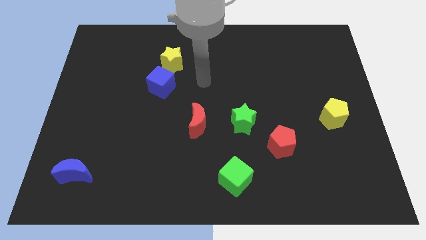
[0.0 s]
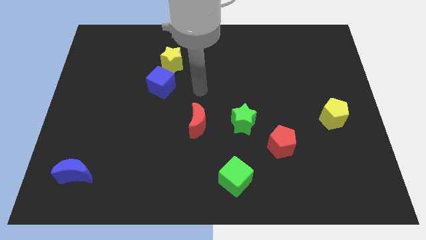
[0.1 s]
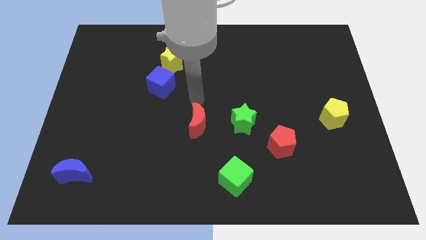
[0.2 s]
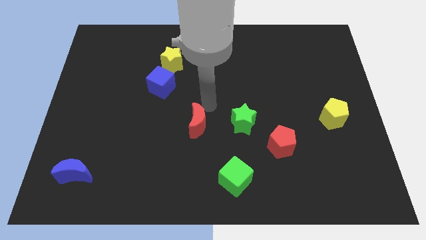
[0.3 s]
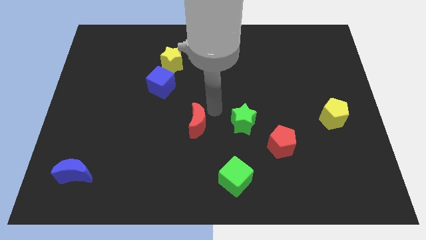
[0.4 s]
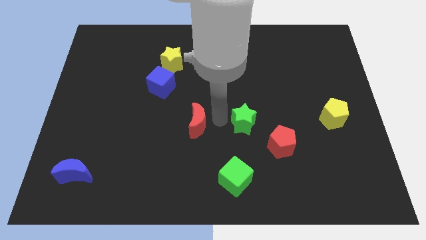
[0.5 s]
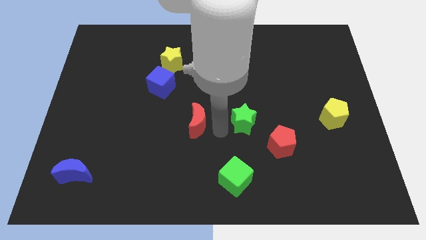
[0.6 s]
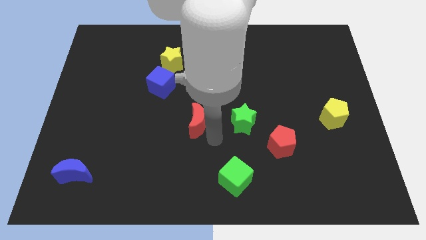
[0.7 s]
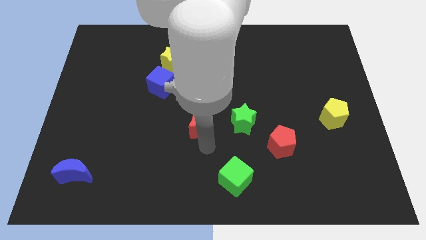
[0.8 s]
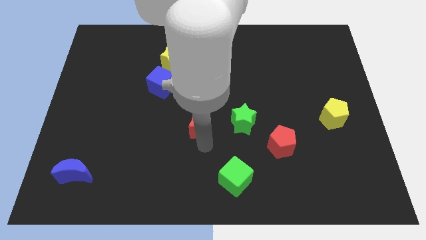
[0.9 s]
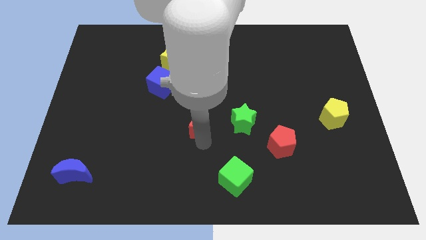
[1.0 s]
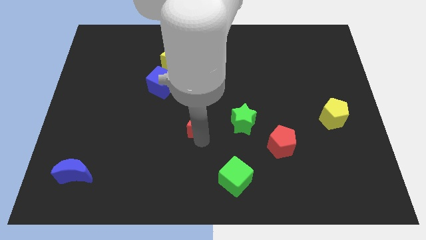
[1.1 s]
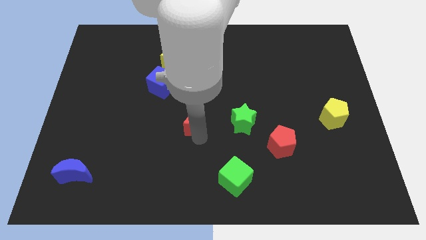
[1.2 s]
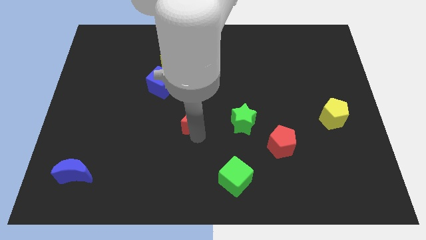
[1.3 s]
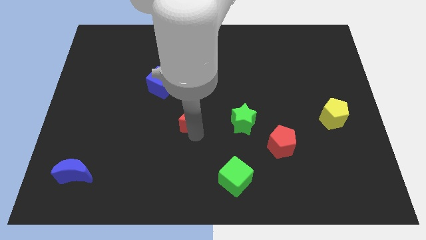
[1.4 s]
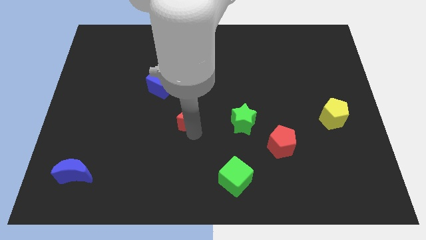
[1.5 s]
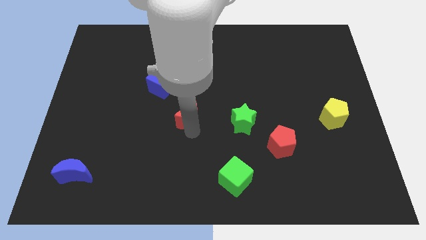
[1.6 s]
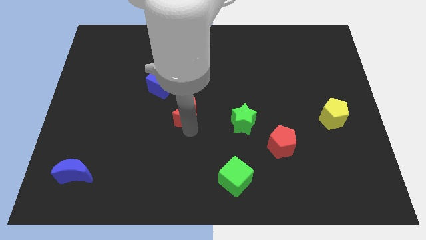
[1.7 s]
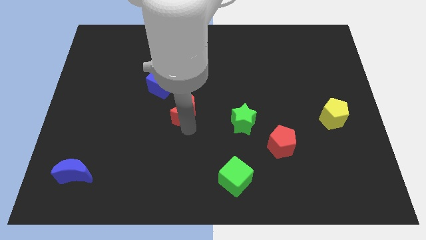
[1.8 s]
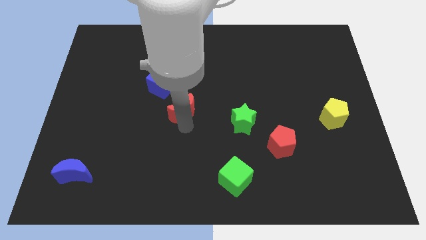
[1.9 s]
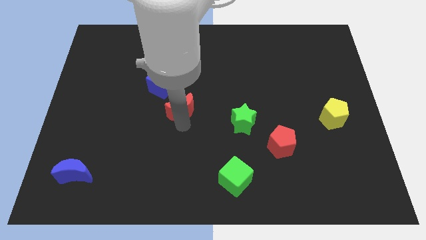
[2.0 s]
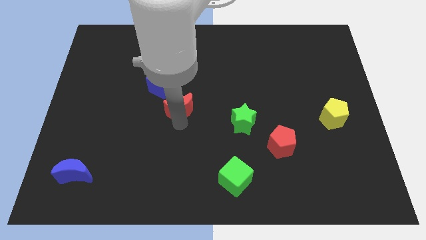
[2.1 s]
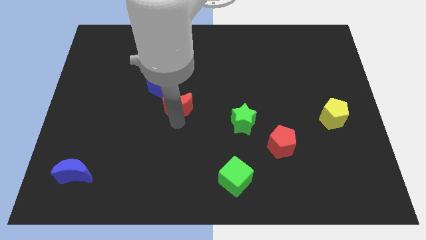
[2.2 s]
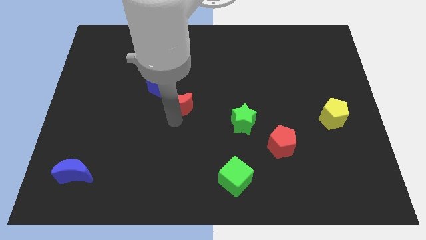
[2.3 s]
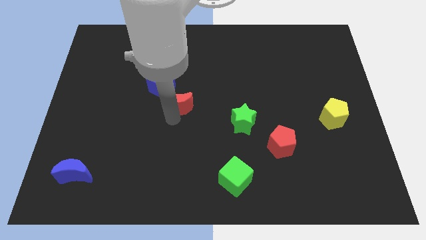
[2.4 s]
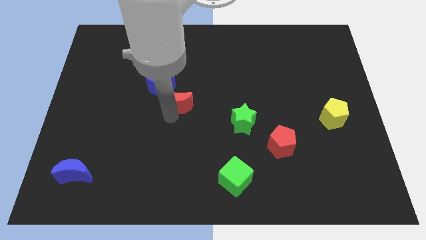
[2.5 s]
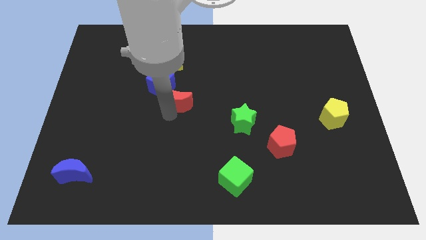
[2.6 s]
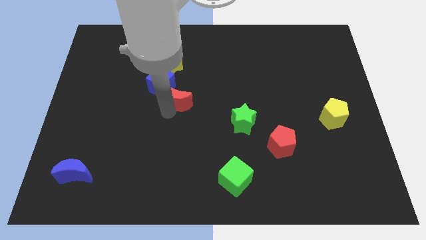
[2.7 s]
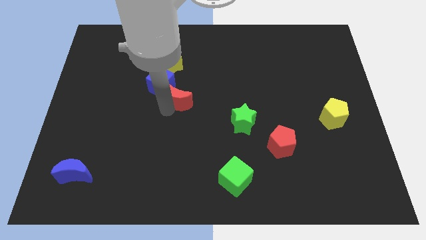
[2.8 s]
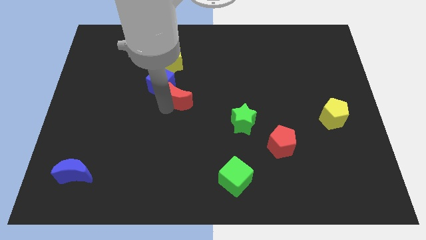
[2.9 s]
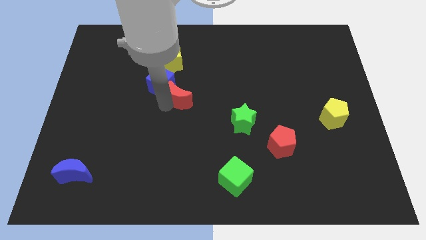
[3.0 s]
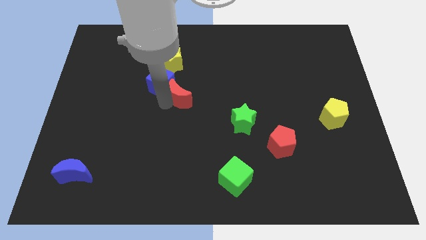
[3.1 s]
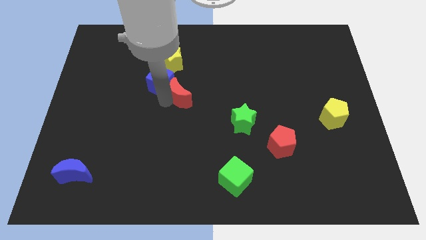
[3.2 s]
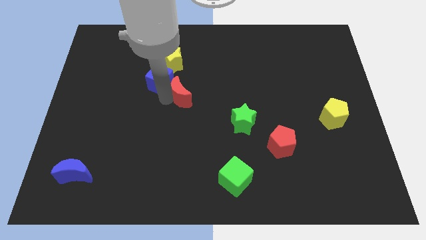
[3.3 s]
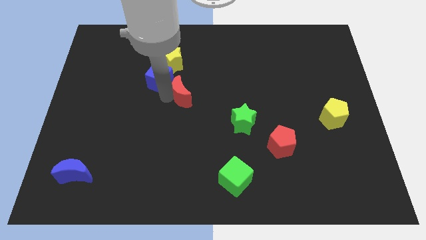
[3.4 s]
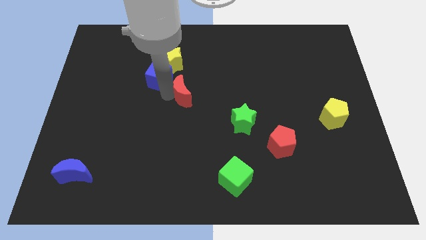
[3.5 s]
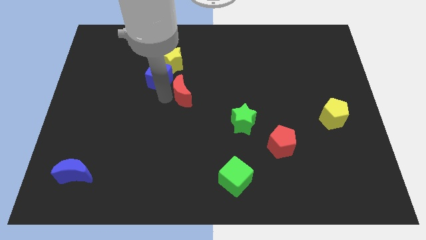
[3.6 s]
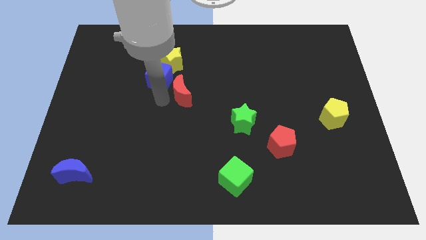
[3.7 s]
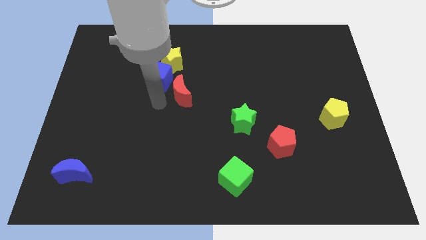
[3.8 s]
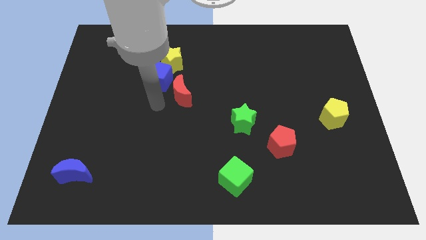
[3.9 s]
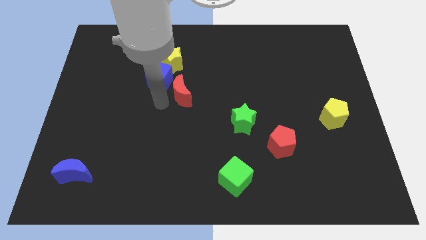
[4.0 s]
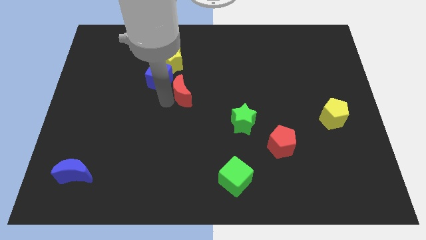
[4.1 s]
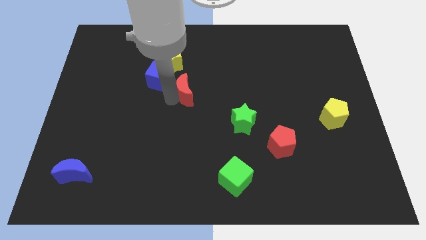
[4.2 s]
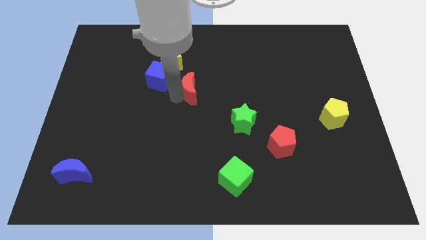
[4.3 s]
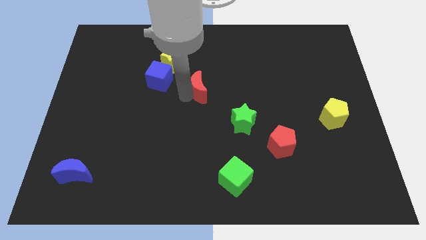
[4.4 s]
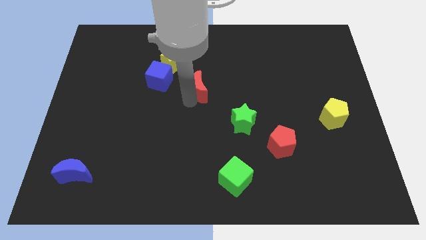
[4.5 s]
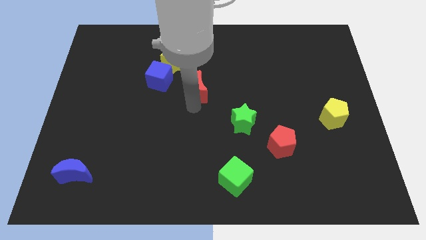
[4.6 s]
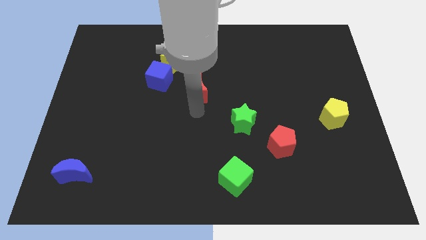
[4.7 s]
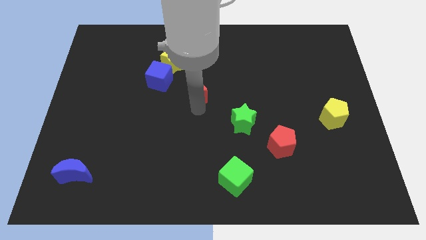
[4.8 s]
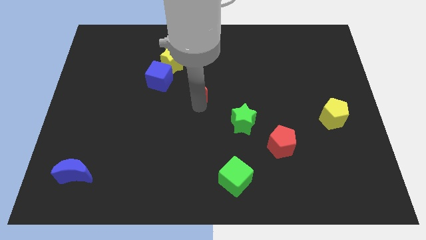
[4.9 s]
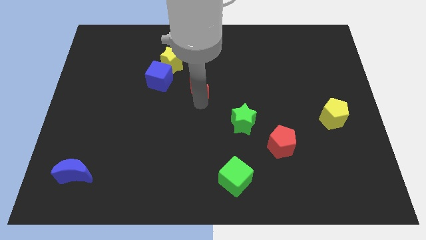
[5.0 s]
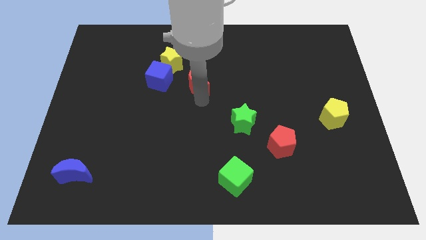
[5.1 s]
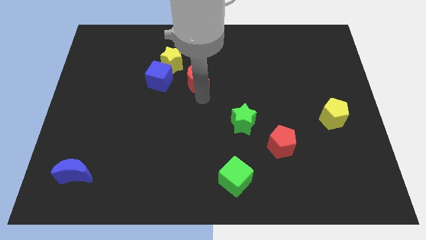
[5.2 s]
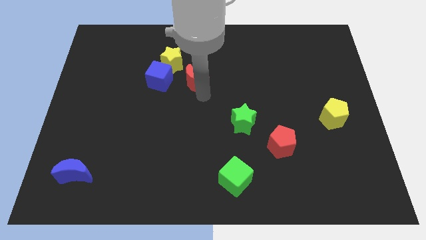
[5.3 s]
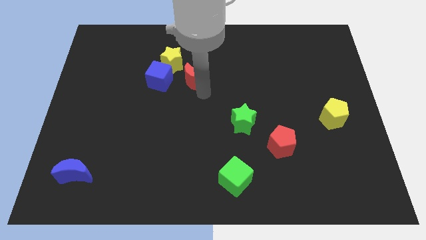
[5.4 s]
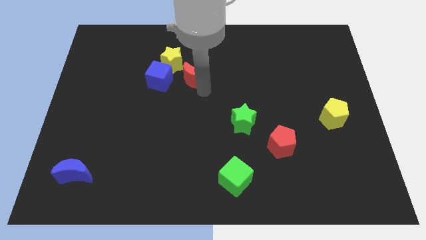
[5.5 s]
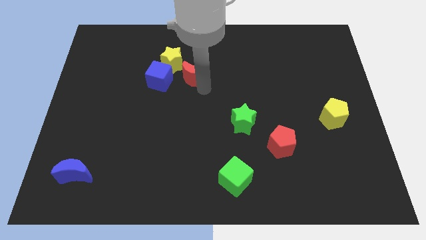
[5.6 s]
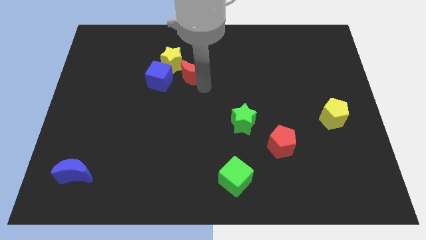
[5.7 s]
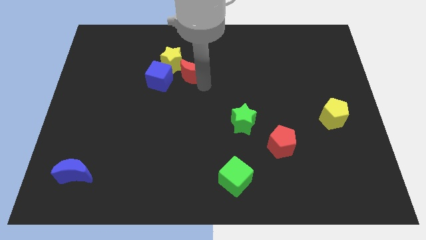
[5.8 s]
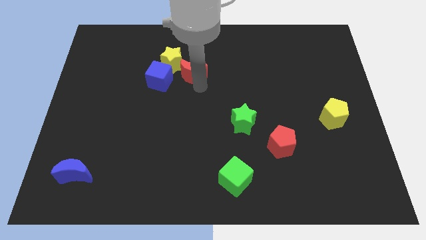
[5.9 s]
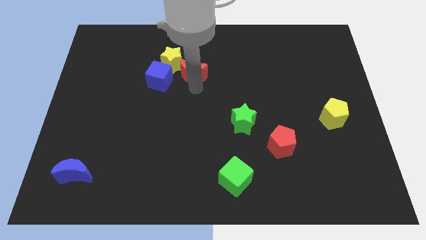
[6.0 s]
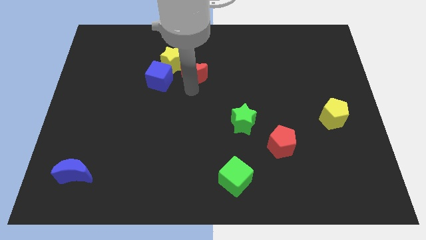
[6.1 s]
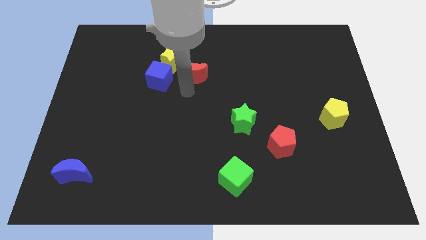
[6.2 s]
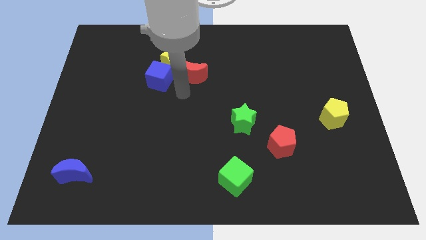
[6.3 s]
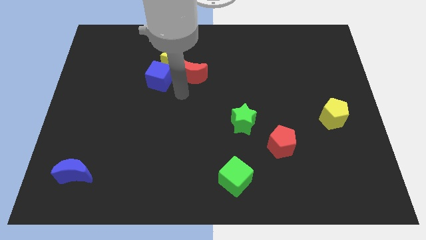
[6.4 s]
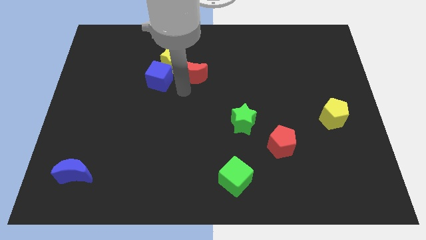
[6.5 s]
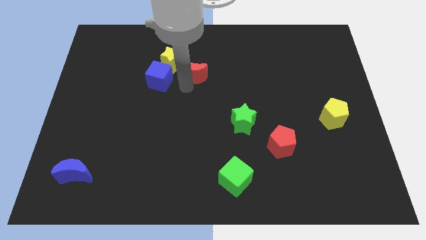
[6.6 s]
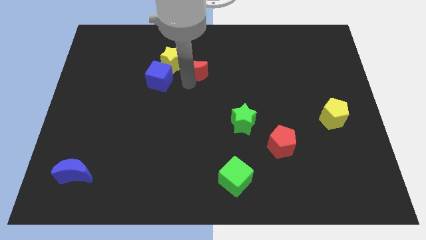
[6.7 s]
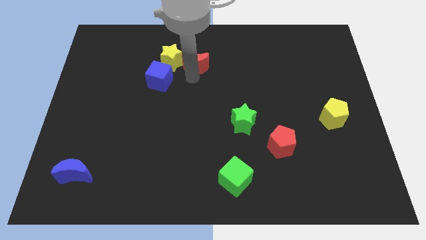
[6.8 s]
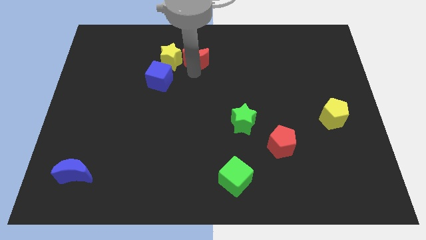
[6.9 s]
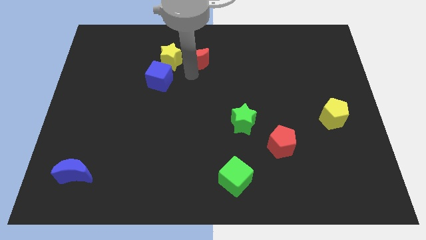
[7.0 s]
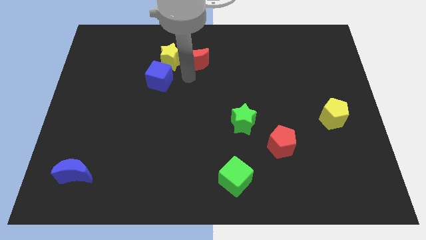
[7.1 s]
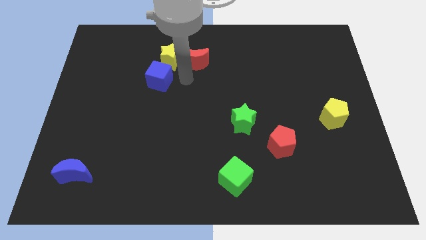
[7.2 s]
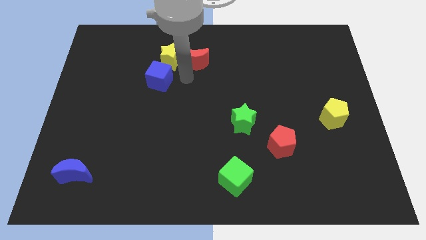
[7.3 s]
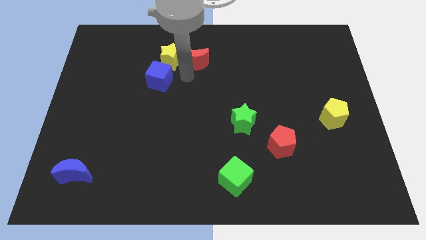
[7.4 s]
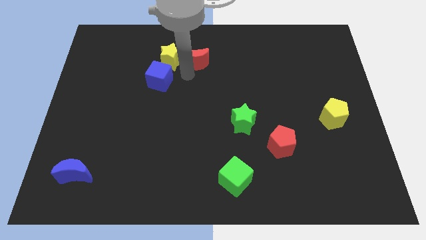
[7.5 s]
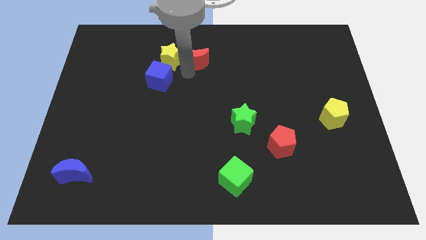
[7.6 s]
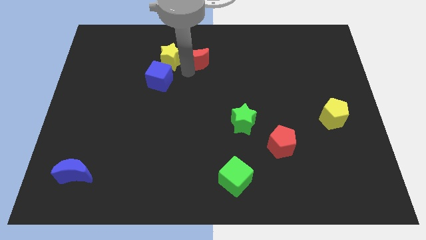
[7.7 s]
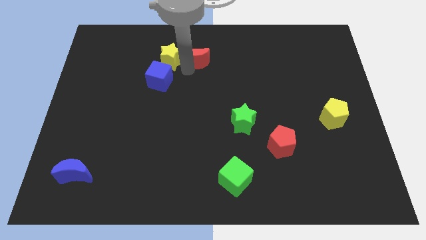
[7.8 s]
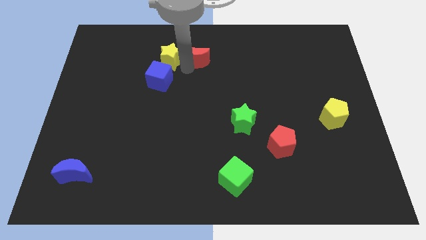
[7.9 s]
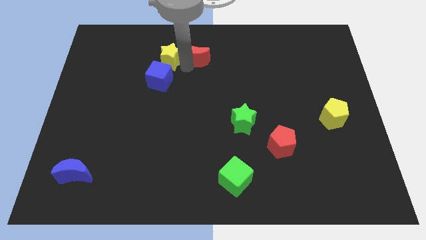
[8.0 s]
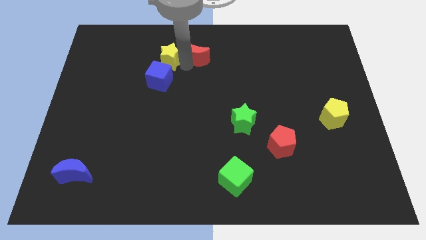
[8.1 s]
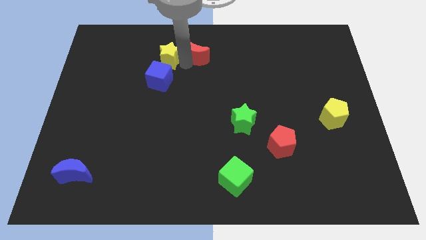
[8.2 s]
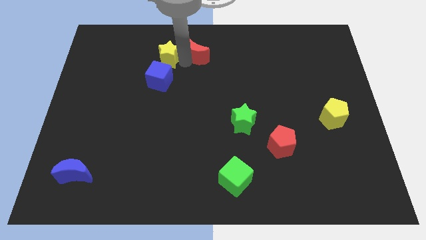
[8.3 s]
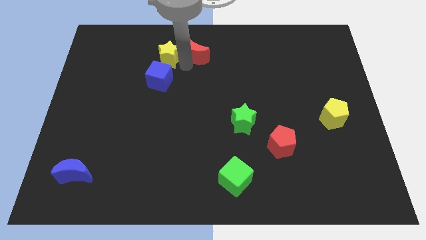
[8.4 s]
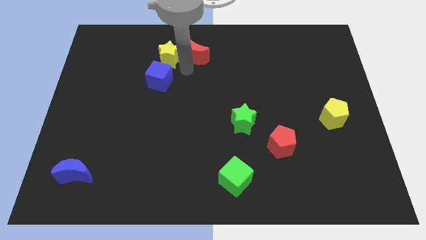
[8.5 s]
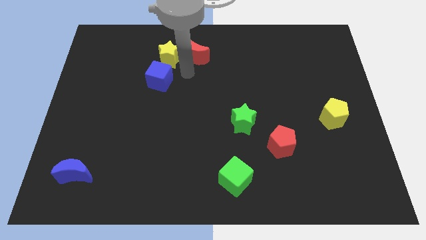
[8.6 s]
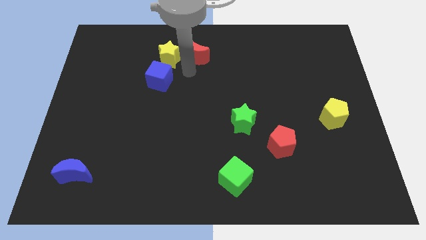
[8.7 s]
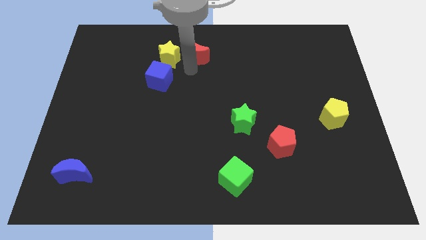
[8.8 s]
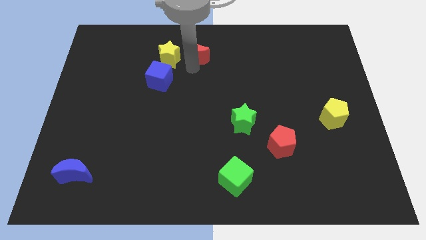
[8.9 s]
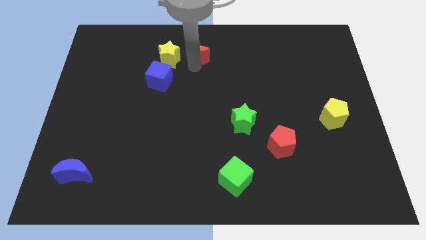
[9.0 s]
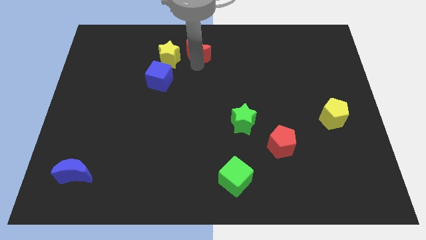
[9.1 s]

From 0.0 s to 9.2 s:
slide the red moon to the towards your base
